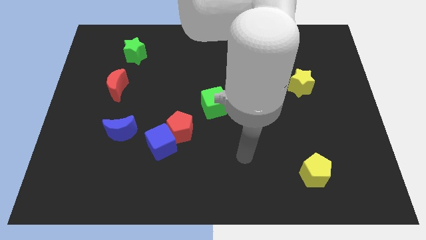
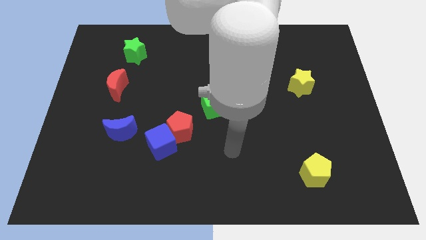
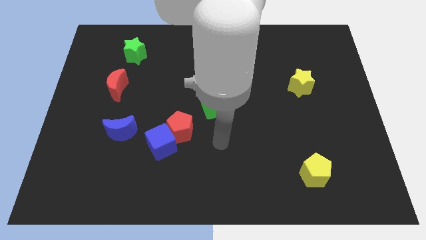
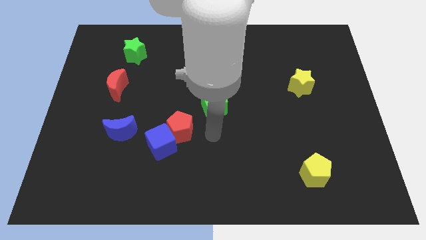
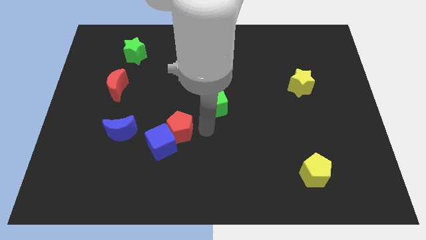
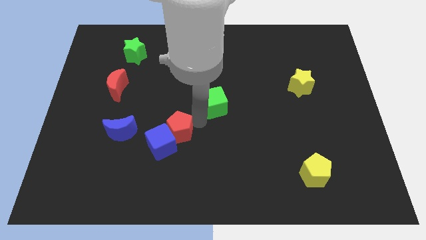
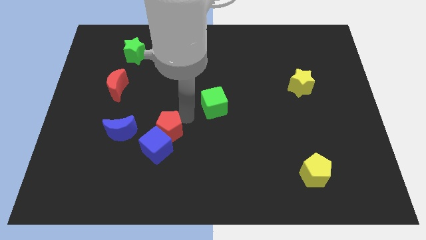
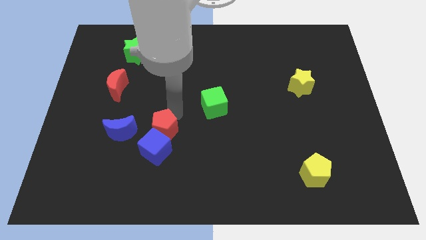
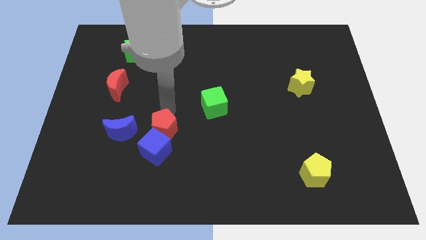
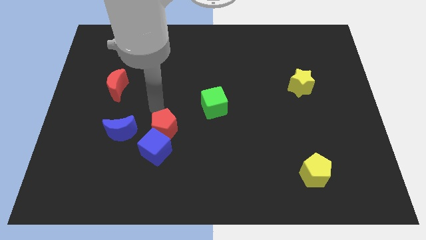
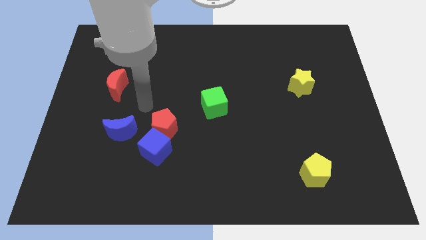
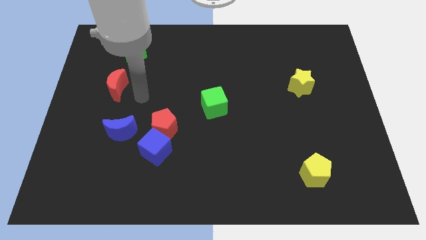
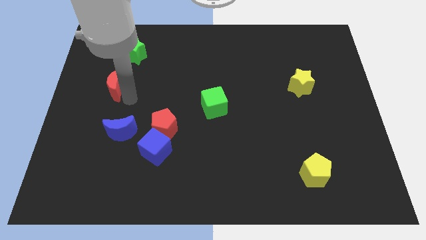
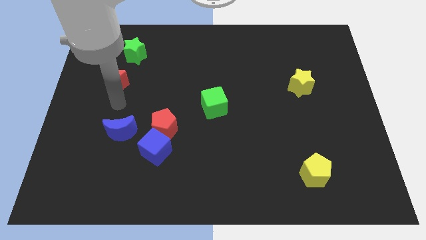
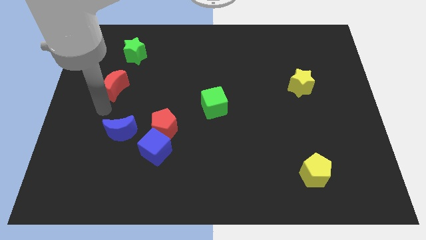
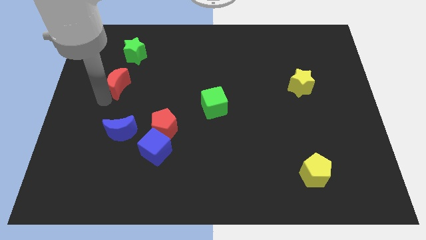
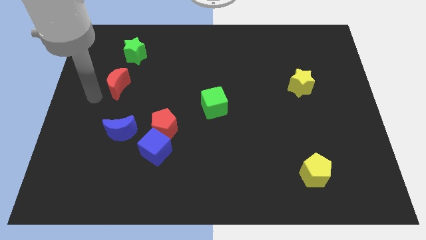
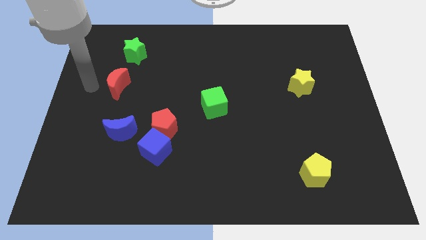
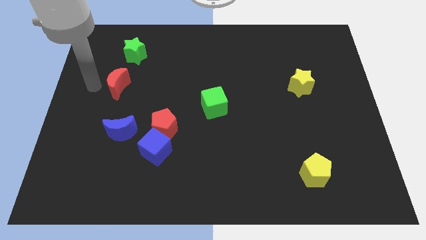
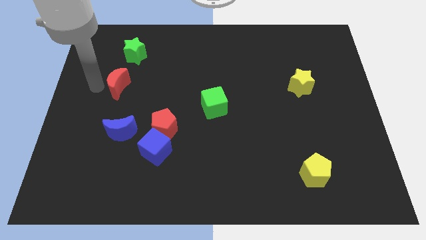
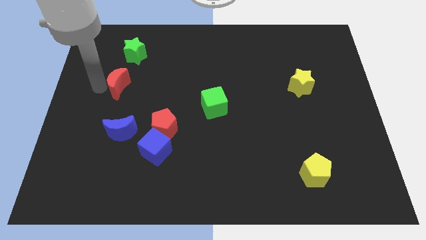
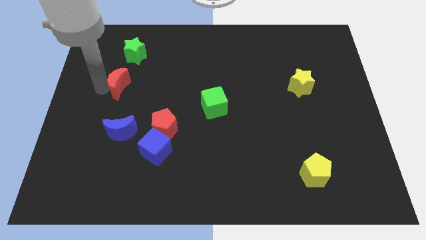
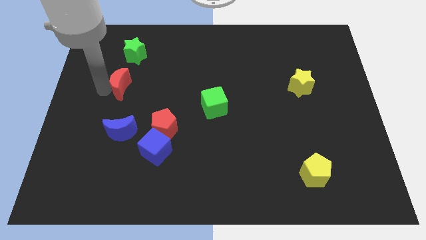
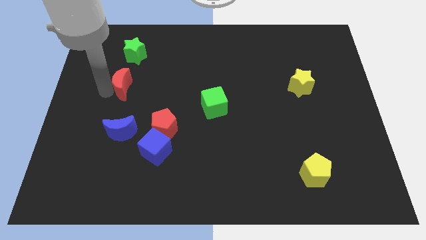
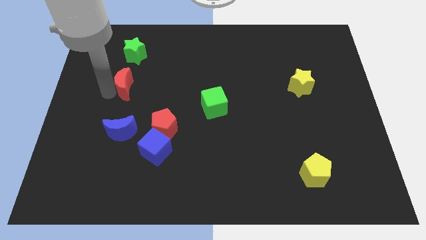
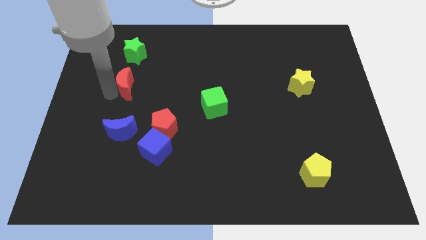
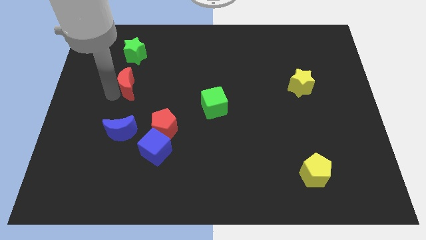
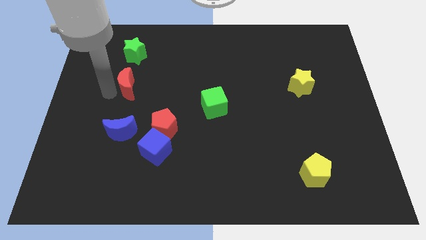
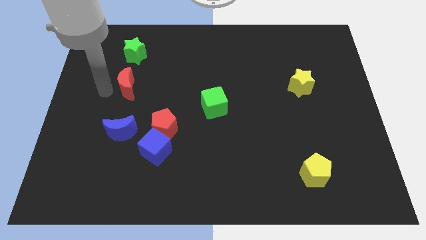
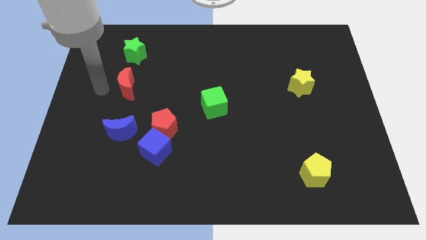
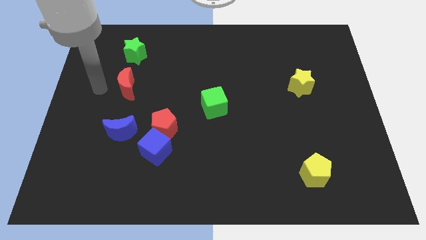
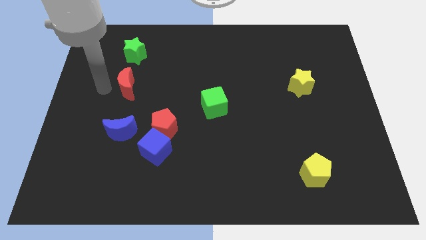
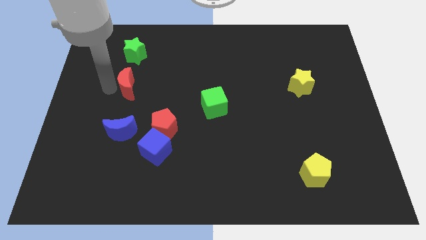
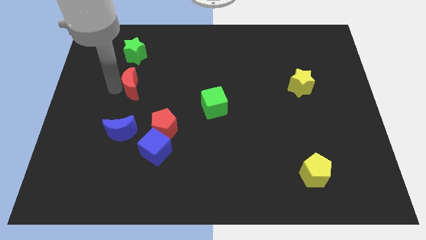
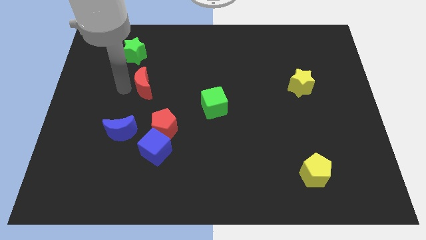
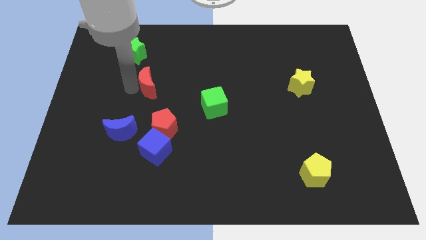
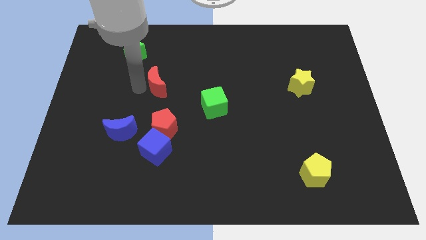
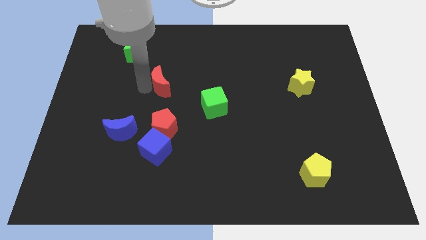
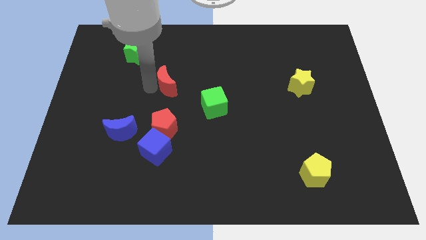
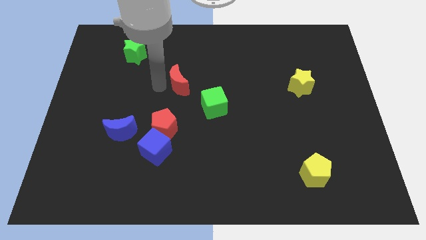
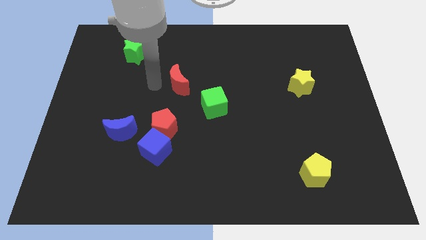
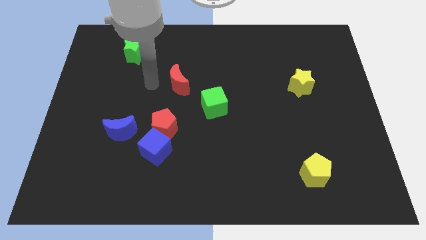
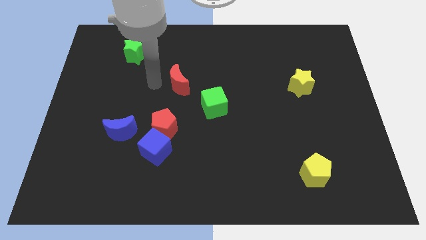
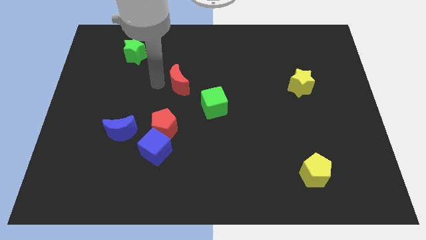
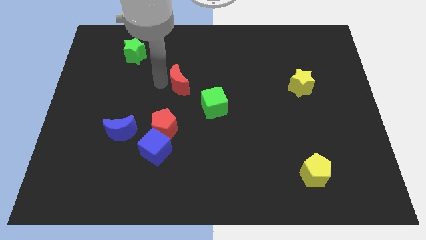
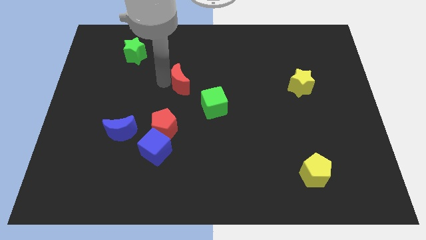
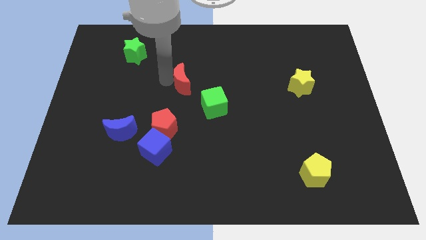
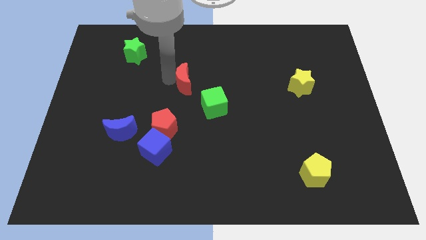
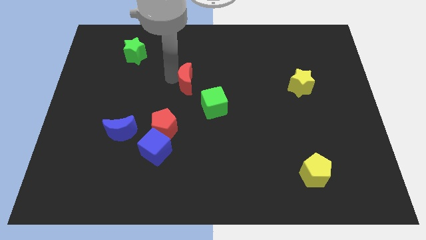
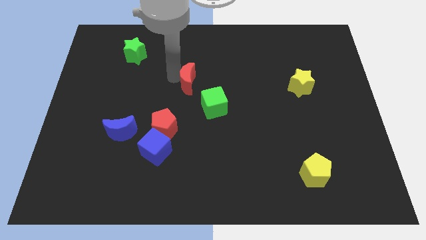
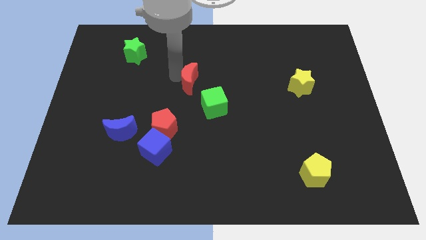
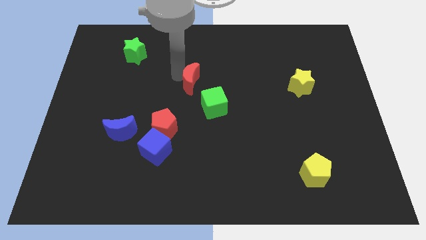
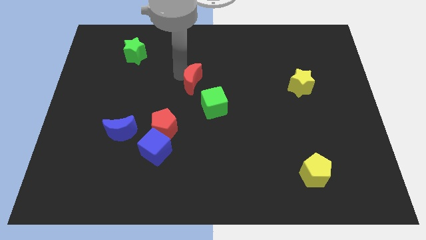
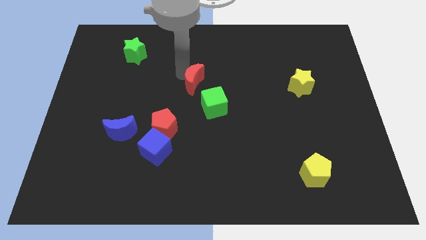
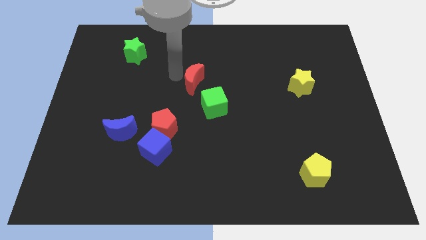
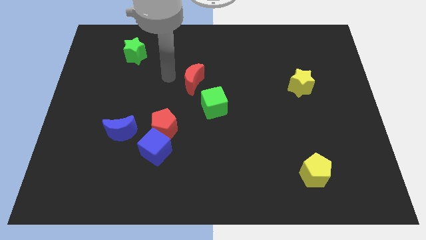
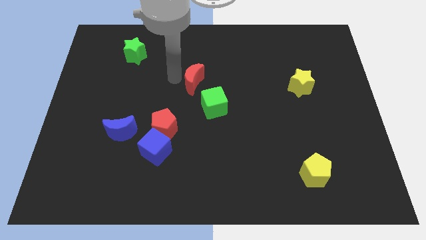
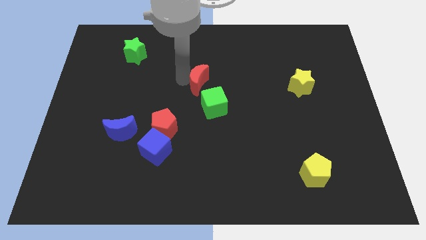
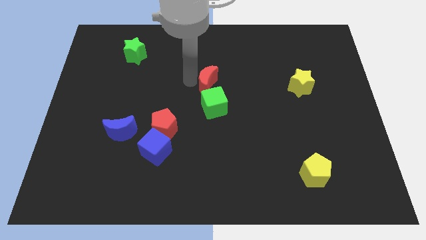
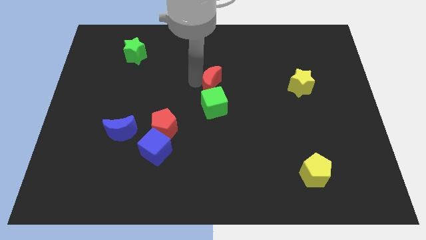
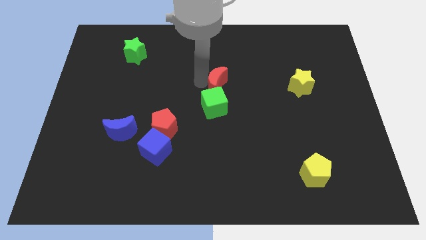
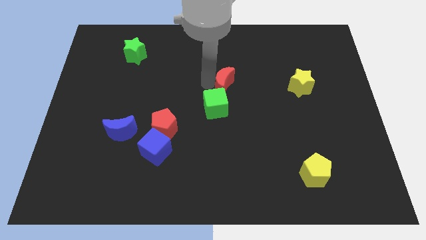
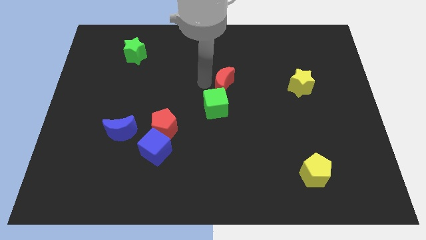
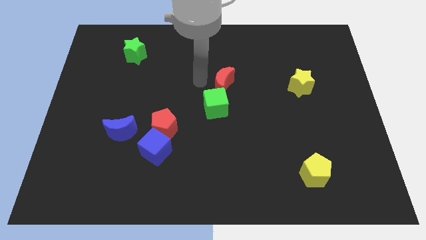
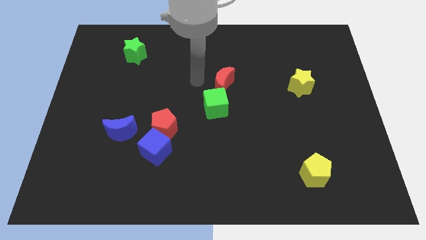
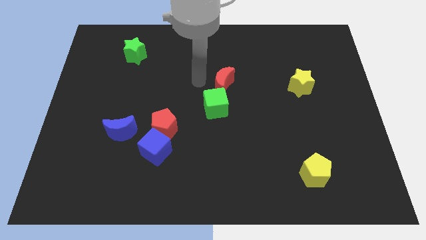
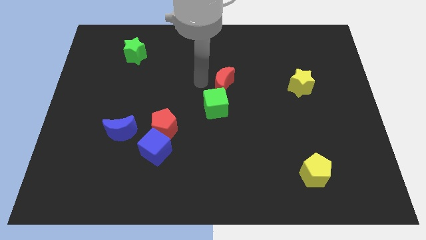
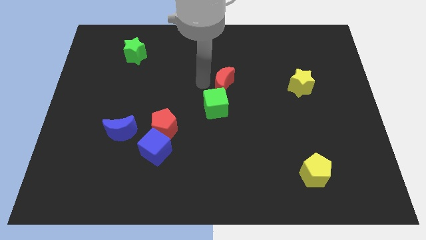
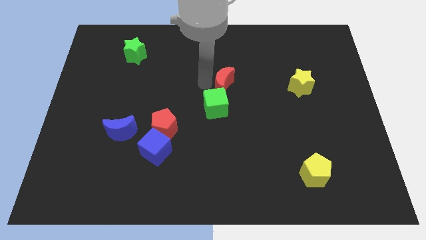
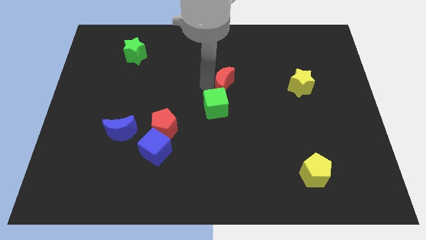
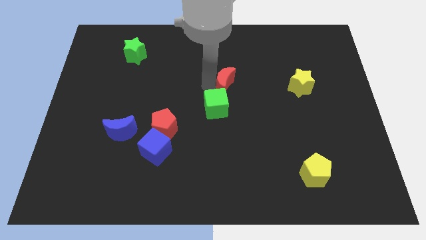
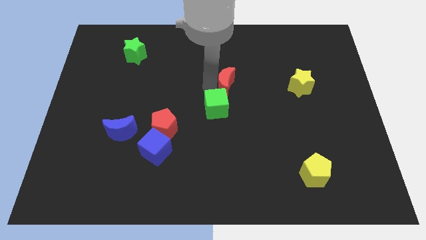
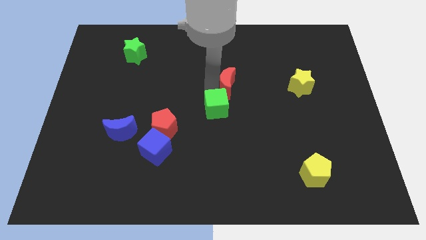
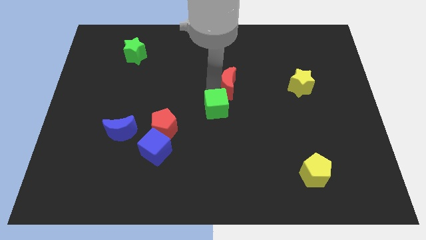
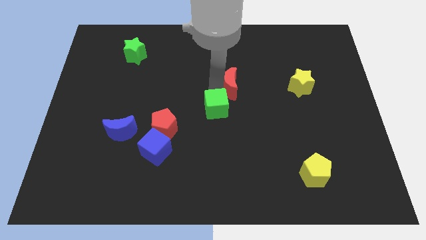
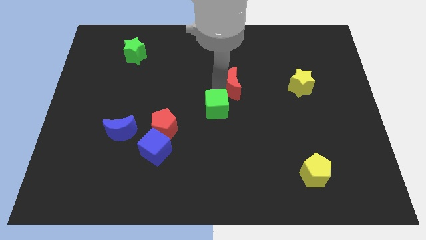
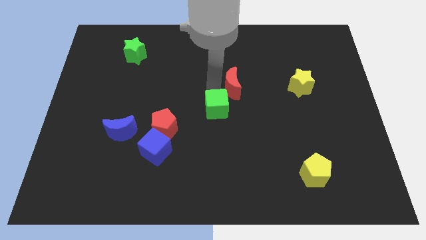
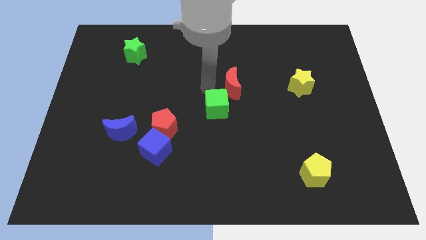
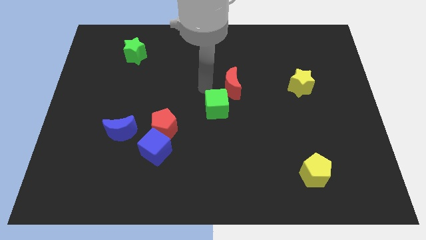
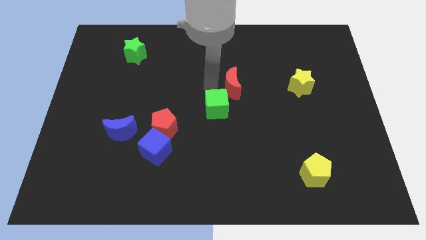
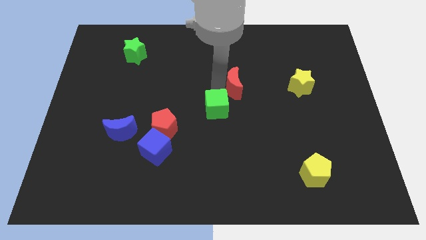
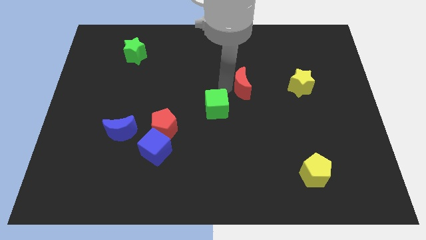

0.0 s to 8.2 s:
put the red moon to the left of the yellow star
